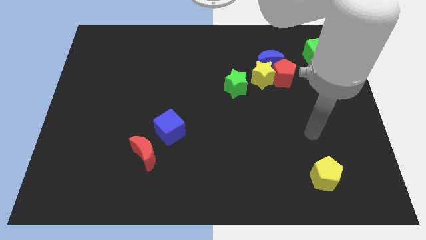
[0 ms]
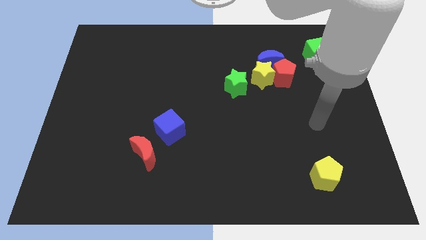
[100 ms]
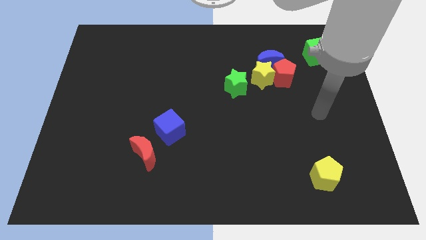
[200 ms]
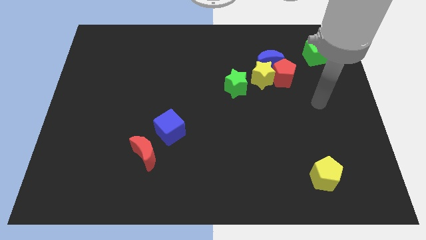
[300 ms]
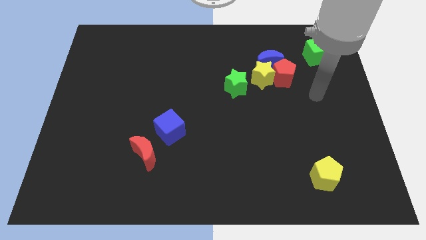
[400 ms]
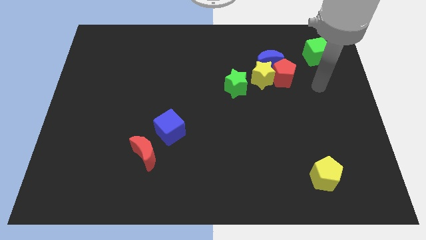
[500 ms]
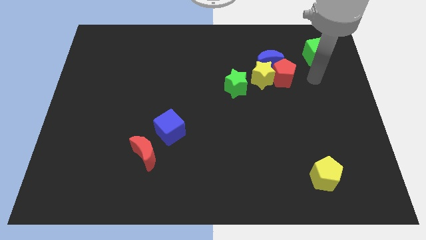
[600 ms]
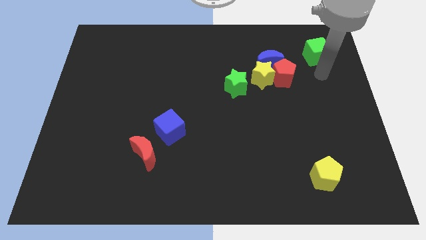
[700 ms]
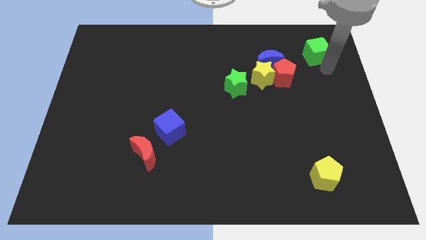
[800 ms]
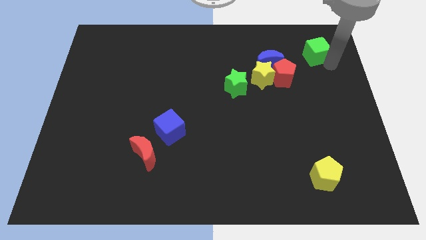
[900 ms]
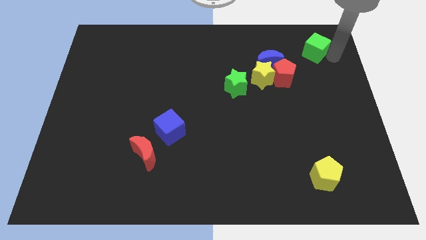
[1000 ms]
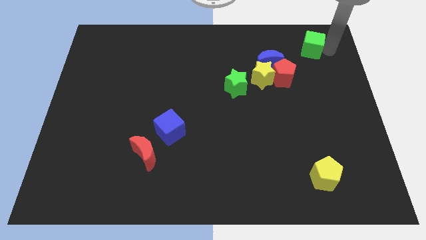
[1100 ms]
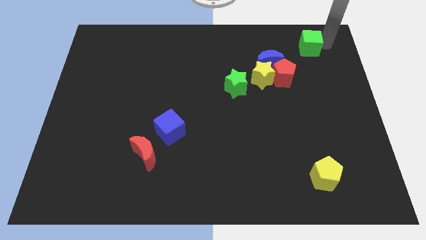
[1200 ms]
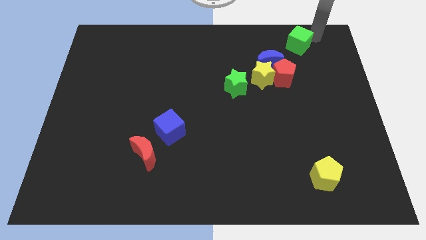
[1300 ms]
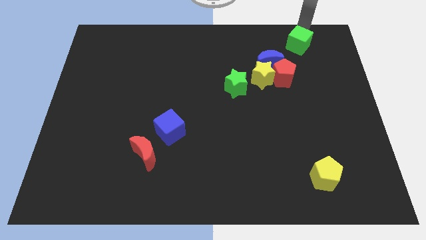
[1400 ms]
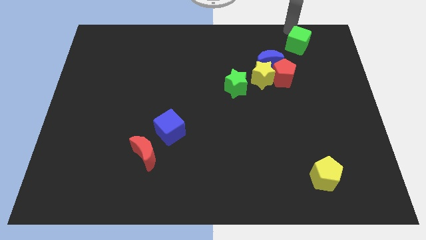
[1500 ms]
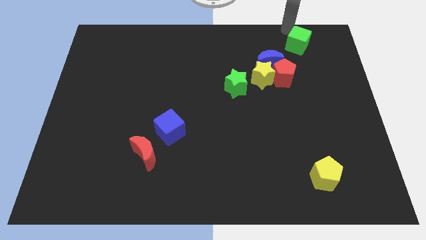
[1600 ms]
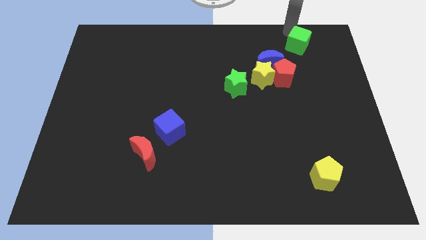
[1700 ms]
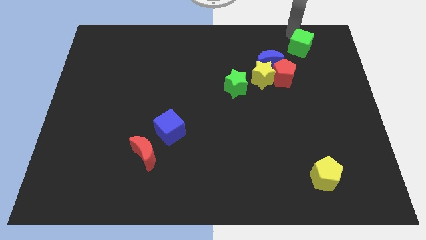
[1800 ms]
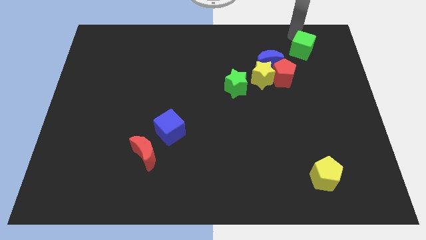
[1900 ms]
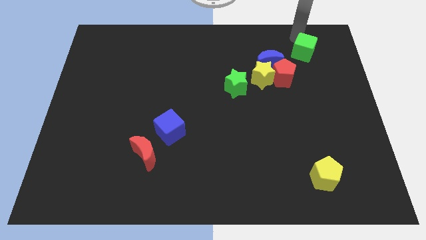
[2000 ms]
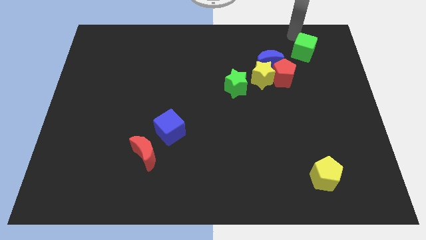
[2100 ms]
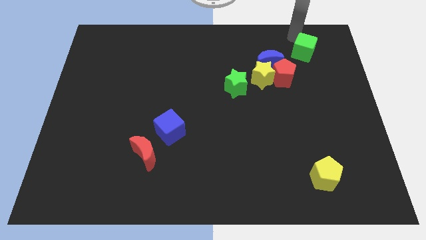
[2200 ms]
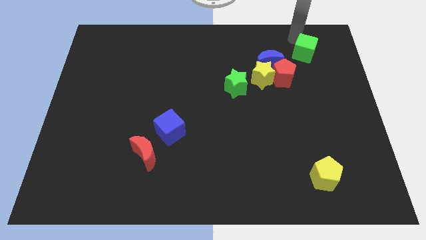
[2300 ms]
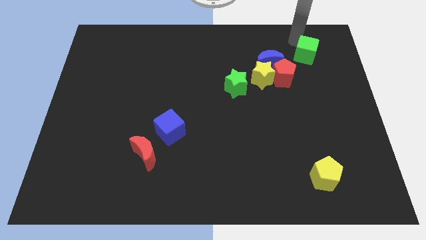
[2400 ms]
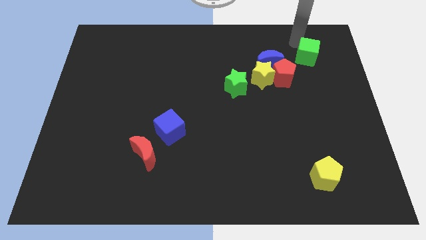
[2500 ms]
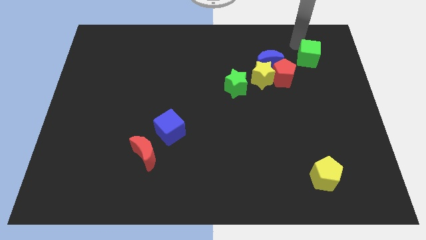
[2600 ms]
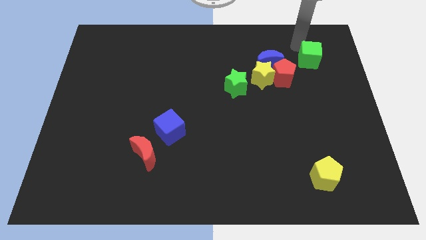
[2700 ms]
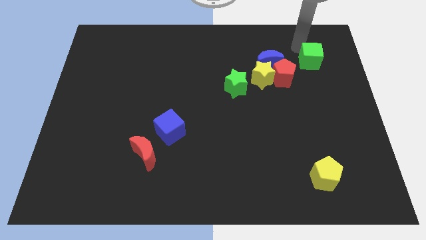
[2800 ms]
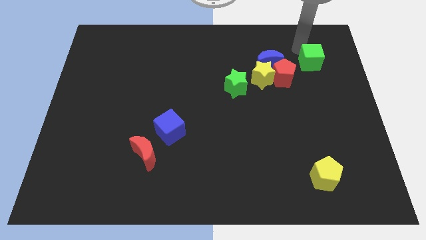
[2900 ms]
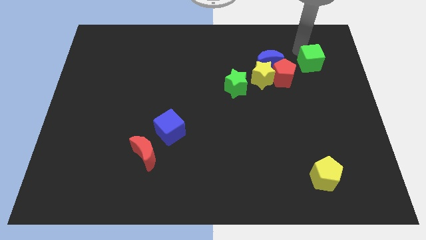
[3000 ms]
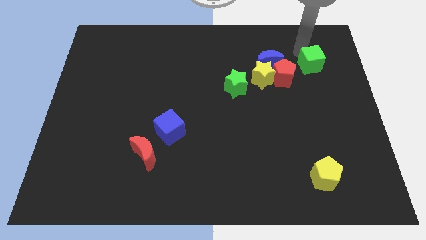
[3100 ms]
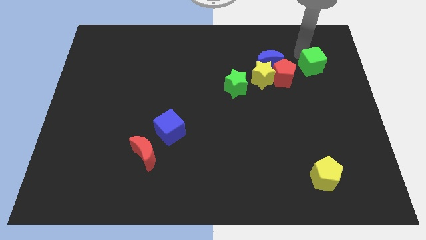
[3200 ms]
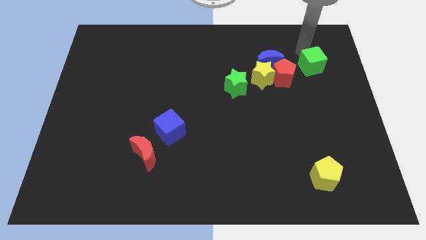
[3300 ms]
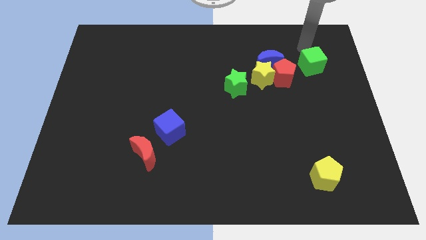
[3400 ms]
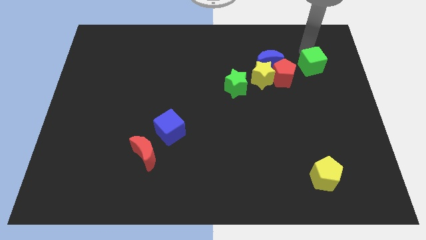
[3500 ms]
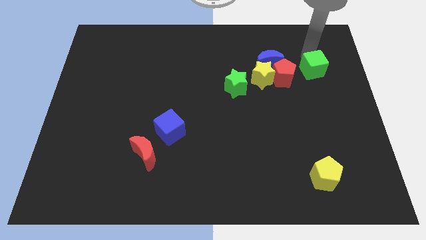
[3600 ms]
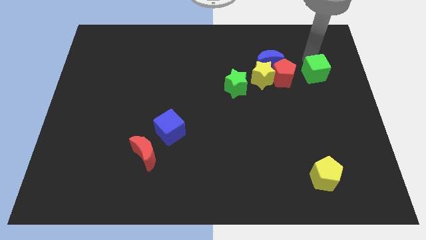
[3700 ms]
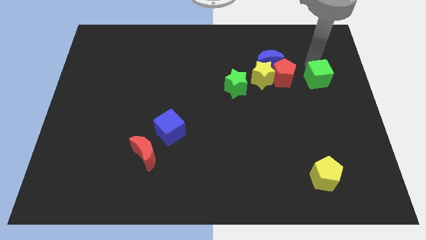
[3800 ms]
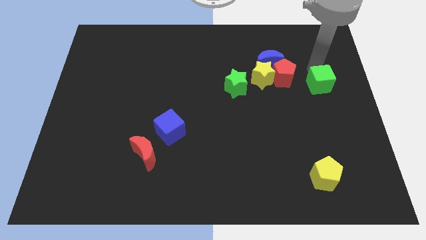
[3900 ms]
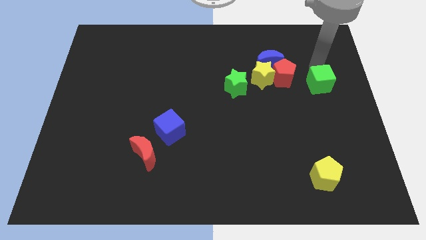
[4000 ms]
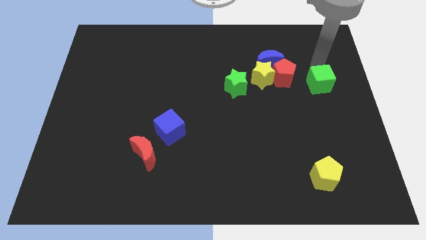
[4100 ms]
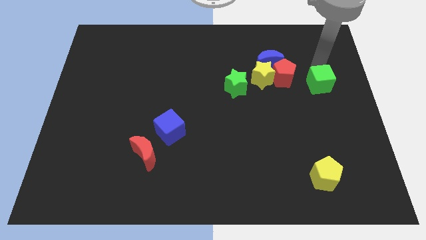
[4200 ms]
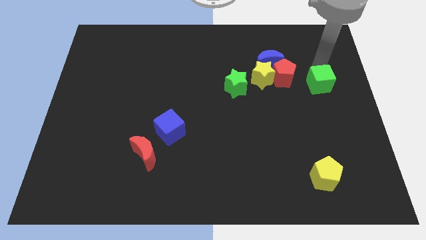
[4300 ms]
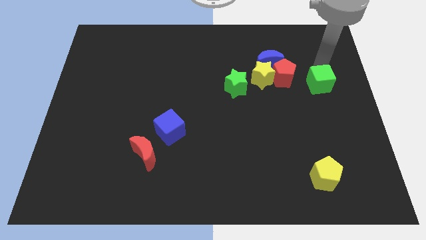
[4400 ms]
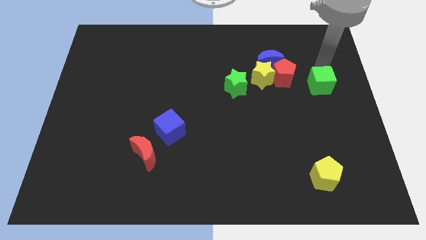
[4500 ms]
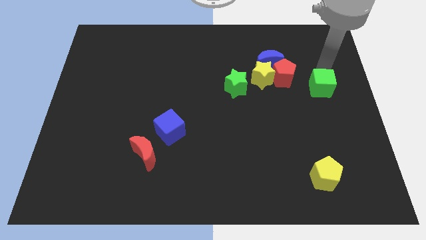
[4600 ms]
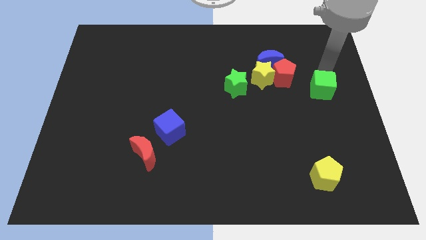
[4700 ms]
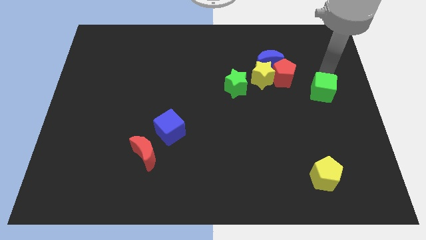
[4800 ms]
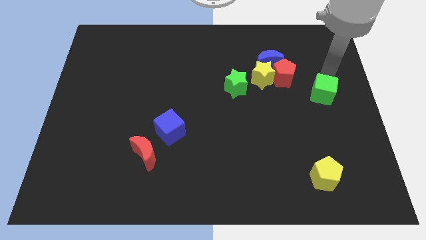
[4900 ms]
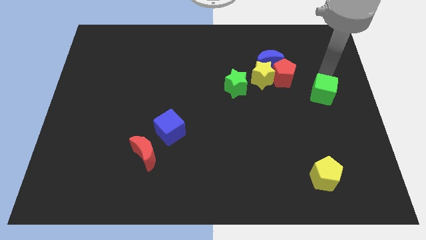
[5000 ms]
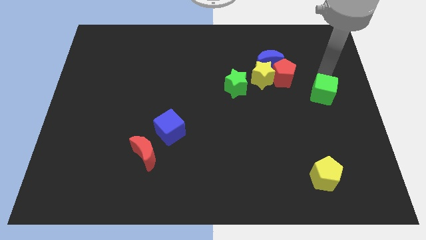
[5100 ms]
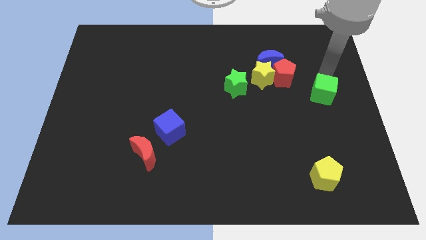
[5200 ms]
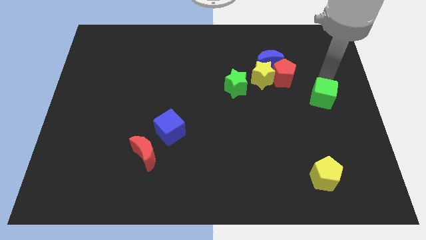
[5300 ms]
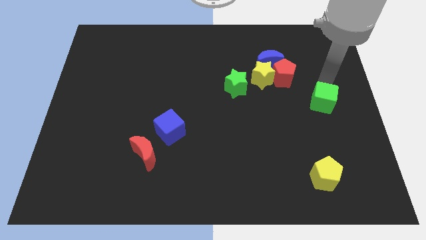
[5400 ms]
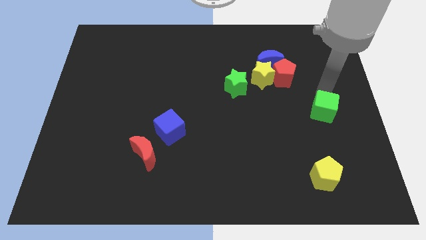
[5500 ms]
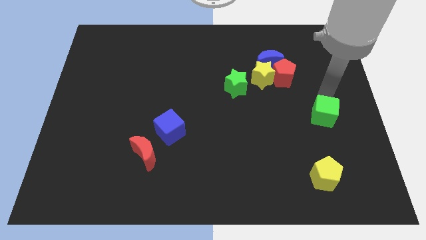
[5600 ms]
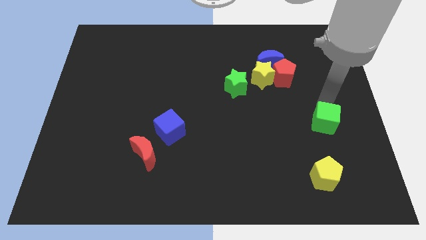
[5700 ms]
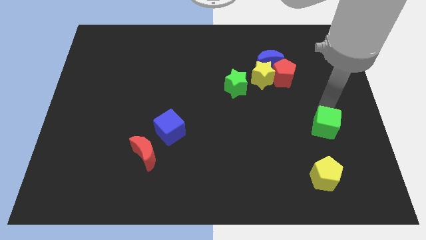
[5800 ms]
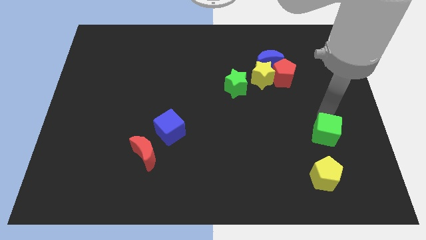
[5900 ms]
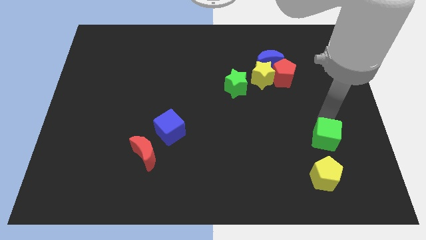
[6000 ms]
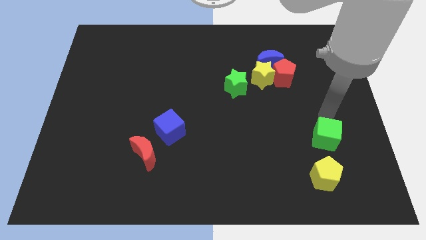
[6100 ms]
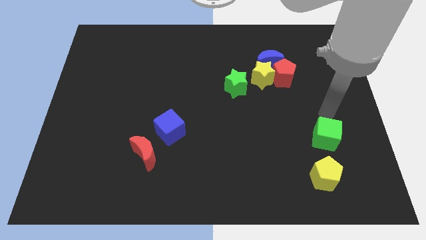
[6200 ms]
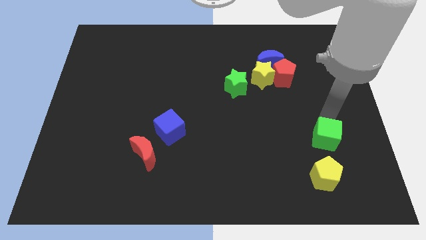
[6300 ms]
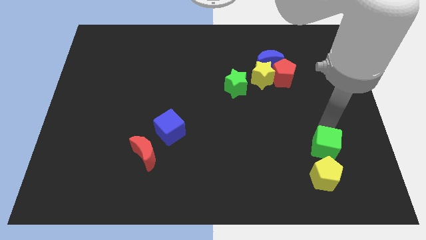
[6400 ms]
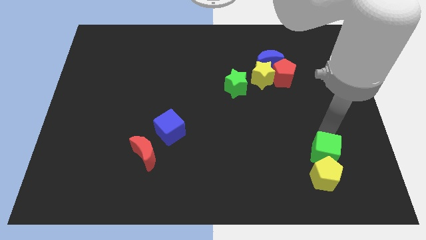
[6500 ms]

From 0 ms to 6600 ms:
put the green cube close to the yellow pentagon

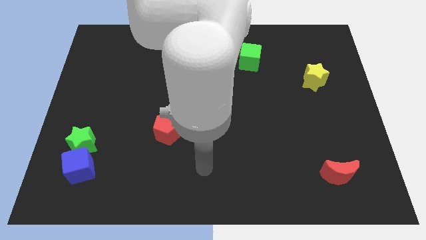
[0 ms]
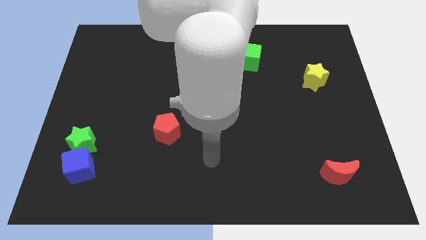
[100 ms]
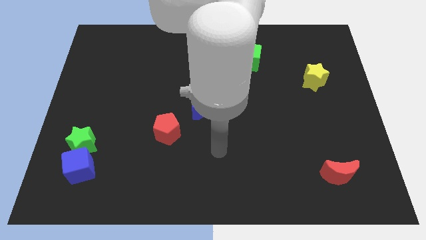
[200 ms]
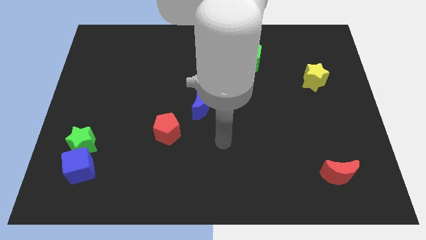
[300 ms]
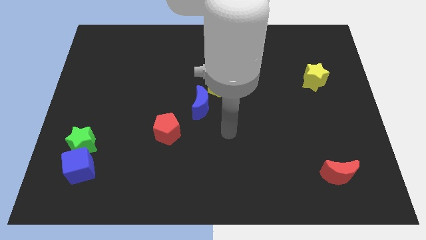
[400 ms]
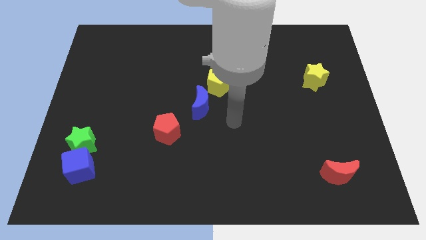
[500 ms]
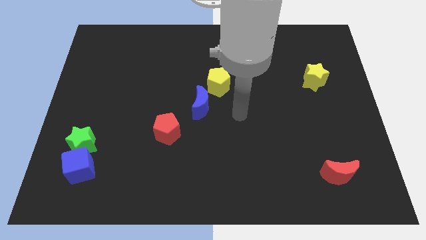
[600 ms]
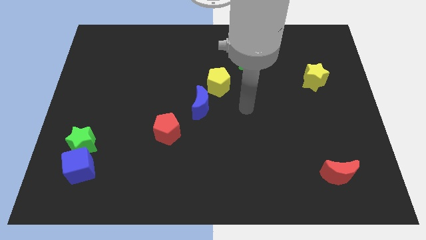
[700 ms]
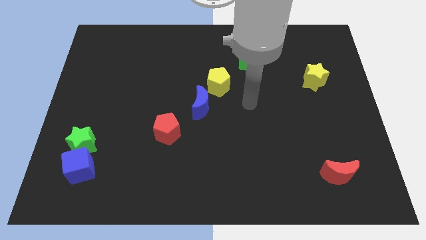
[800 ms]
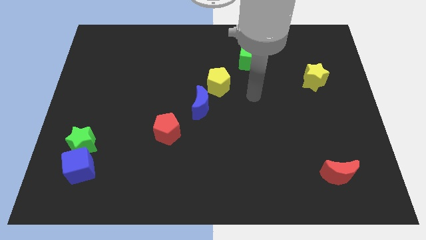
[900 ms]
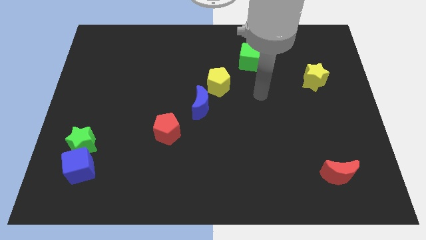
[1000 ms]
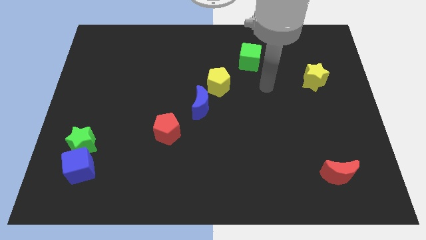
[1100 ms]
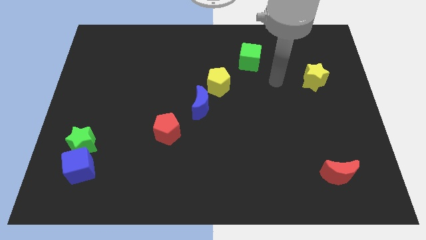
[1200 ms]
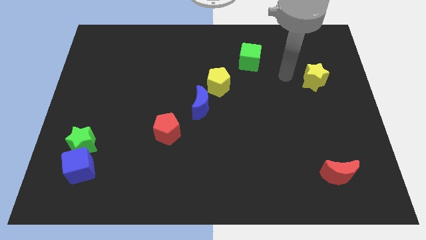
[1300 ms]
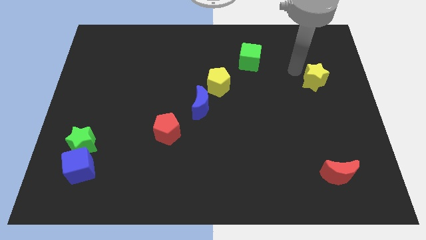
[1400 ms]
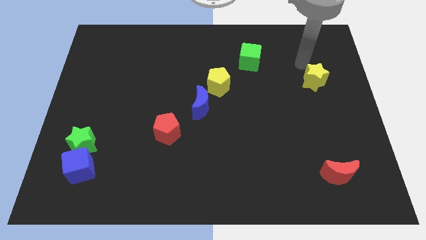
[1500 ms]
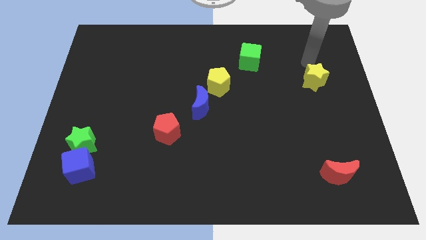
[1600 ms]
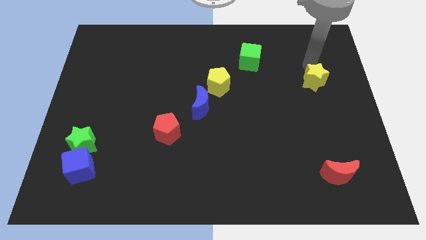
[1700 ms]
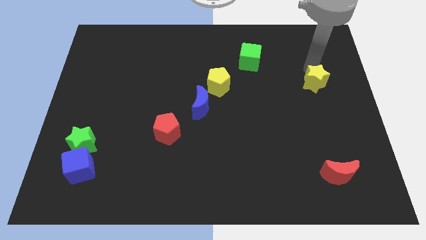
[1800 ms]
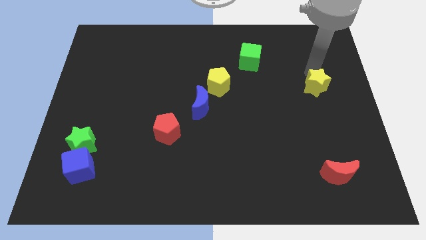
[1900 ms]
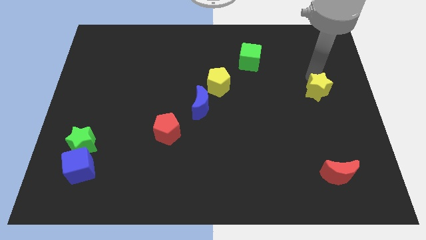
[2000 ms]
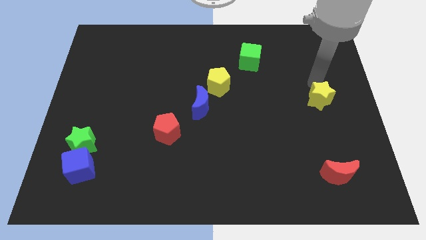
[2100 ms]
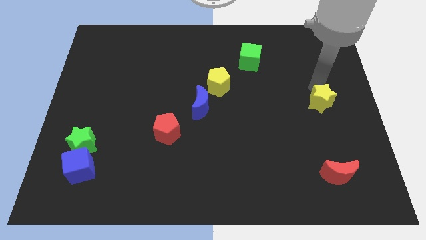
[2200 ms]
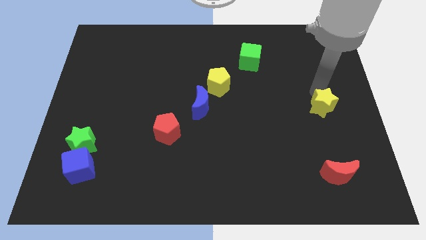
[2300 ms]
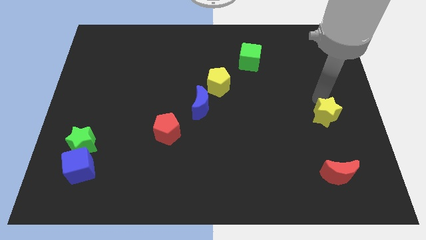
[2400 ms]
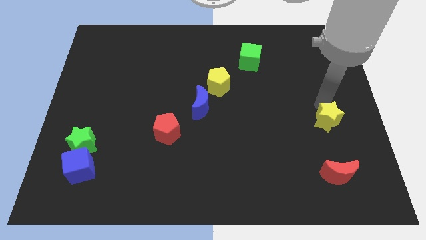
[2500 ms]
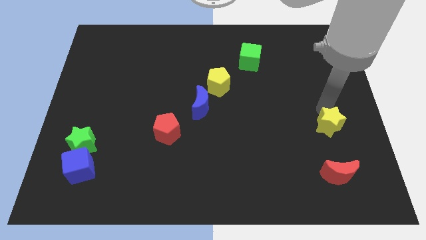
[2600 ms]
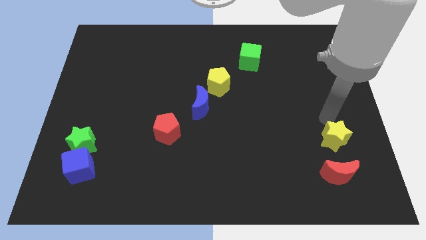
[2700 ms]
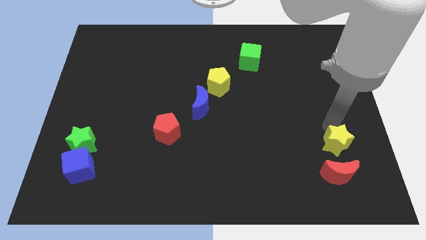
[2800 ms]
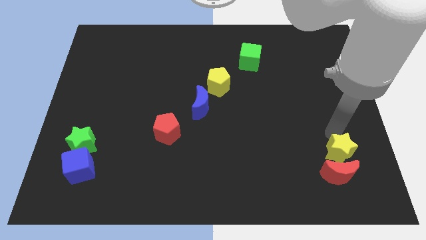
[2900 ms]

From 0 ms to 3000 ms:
move the yellow star towards the red moon
